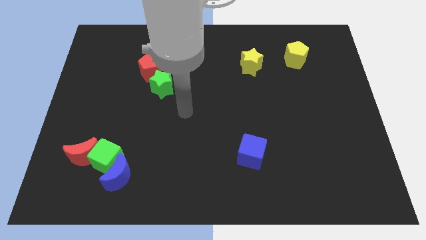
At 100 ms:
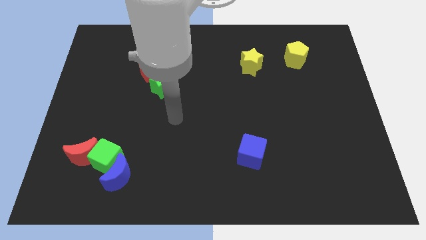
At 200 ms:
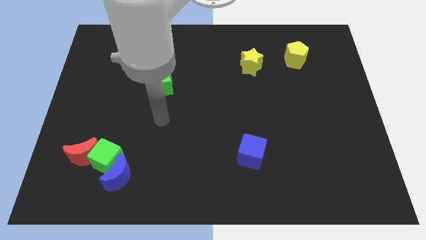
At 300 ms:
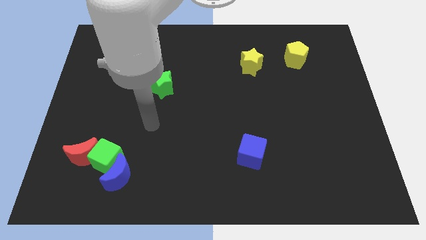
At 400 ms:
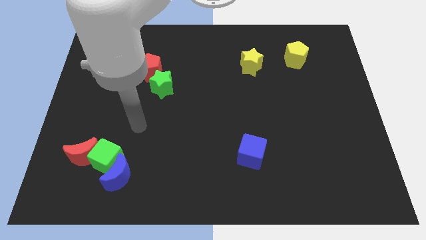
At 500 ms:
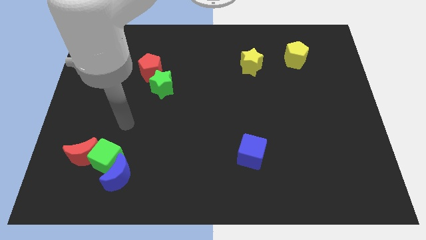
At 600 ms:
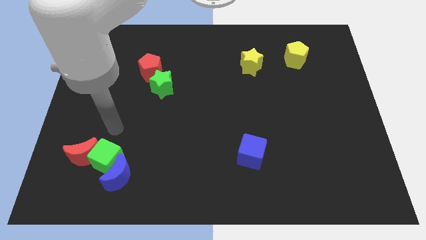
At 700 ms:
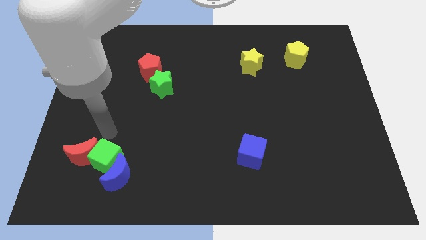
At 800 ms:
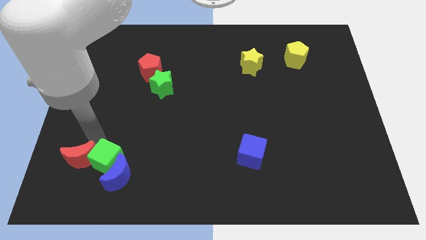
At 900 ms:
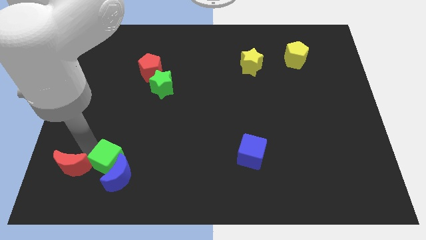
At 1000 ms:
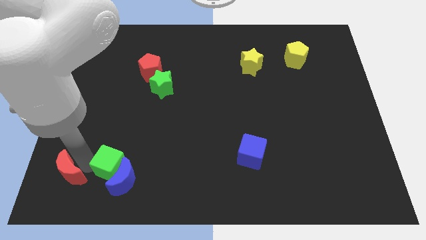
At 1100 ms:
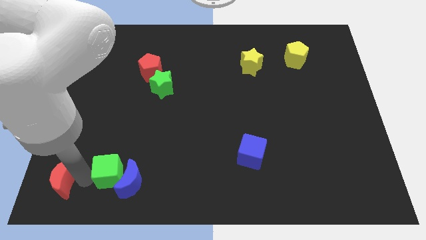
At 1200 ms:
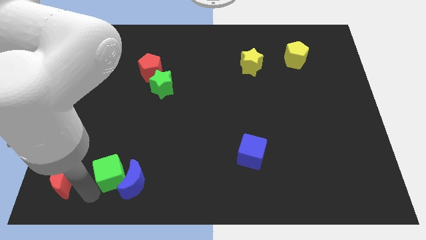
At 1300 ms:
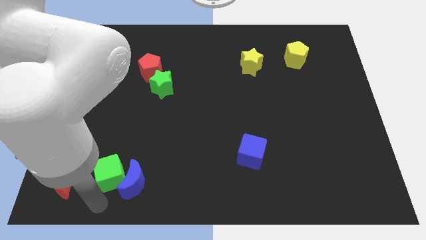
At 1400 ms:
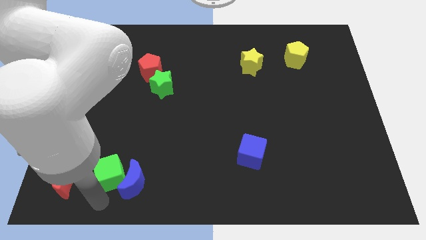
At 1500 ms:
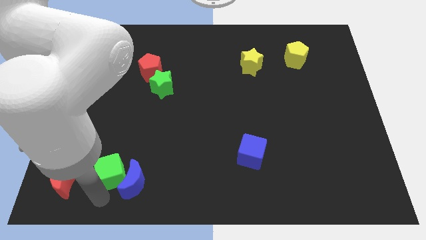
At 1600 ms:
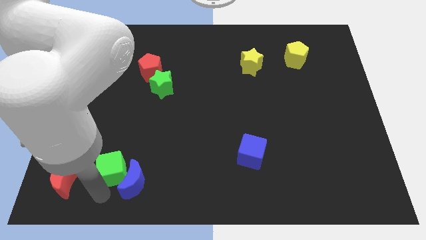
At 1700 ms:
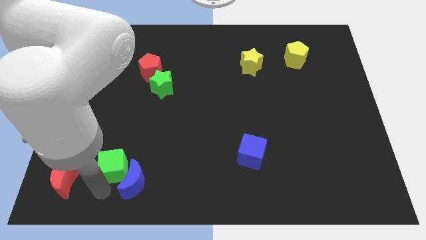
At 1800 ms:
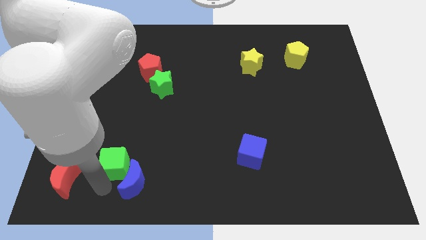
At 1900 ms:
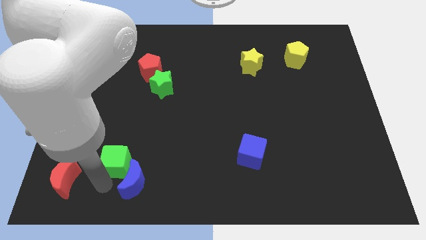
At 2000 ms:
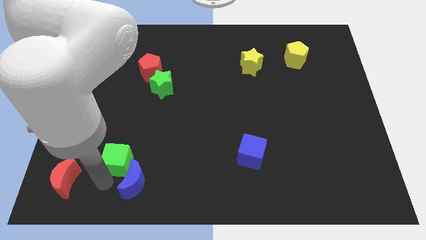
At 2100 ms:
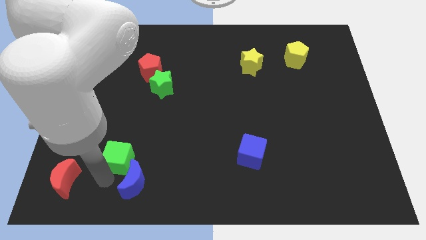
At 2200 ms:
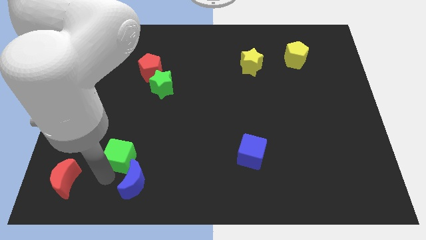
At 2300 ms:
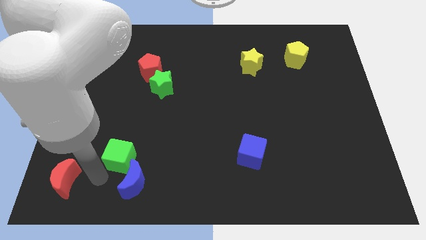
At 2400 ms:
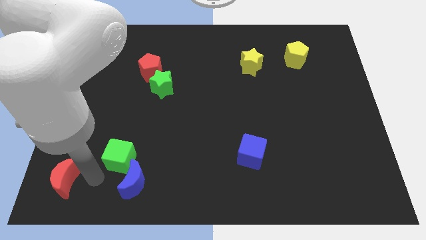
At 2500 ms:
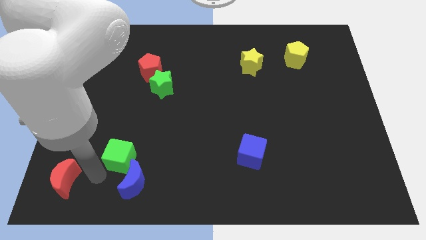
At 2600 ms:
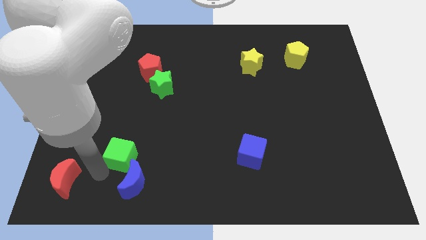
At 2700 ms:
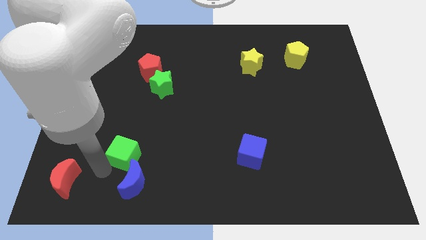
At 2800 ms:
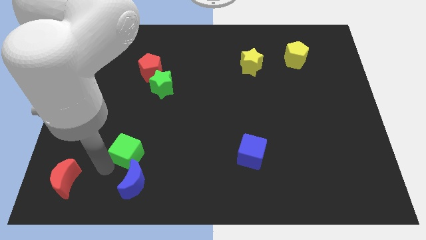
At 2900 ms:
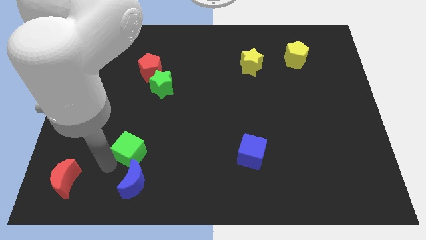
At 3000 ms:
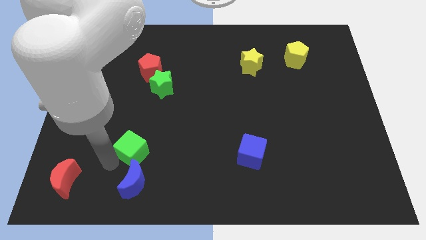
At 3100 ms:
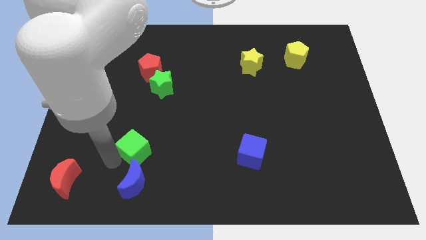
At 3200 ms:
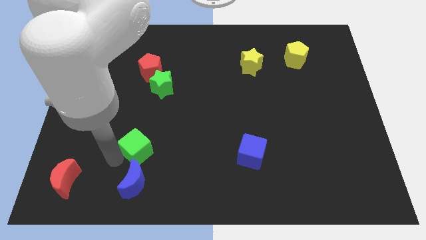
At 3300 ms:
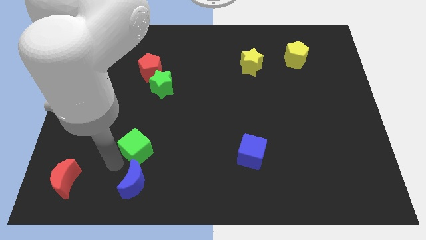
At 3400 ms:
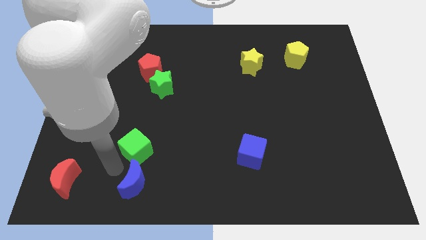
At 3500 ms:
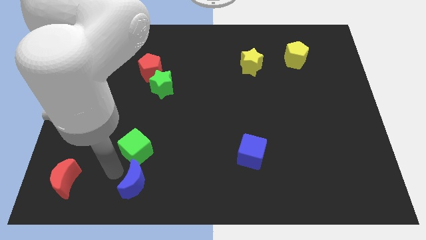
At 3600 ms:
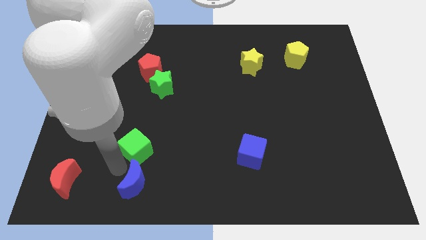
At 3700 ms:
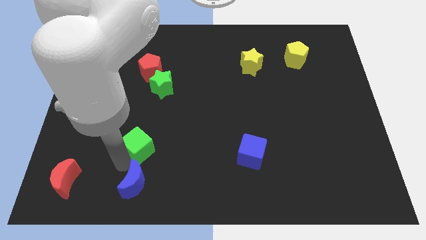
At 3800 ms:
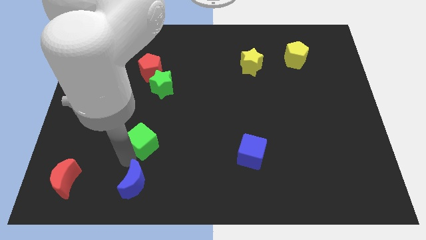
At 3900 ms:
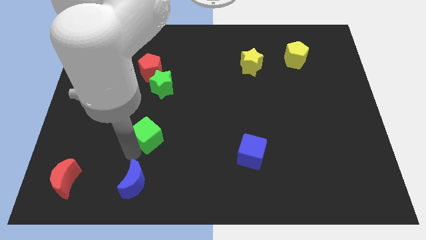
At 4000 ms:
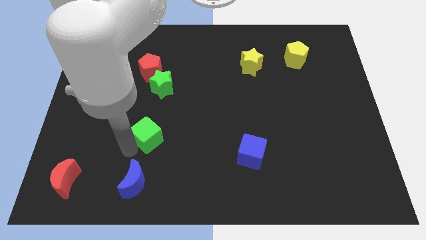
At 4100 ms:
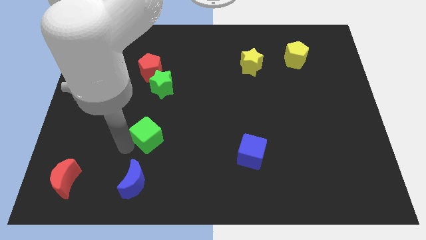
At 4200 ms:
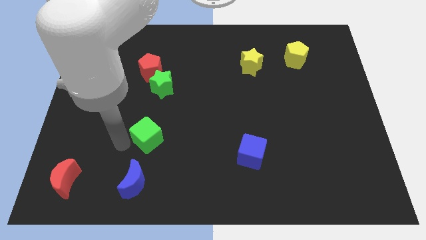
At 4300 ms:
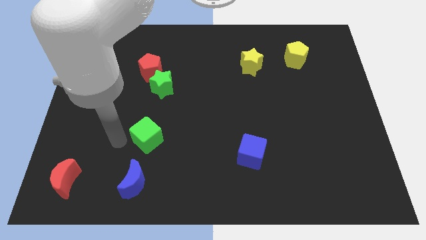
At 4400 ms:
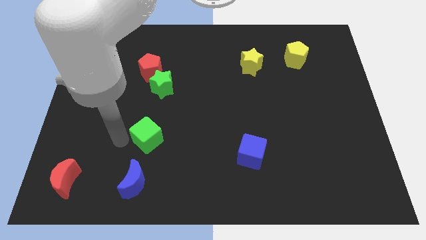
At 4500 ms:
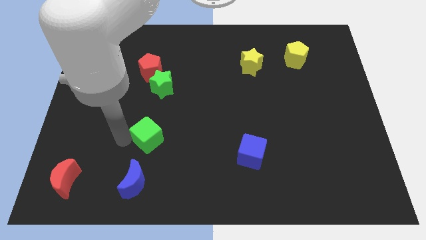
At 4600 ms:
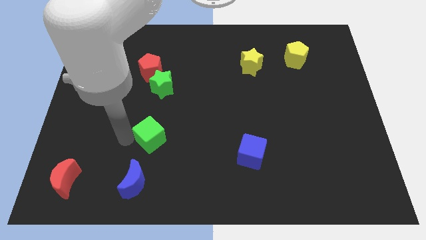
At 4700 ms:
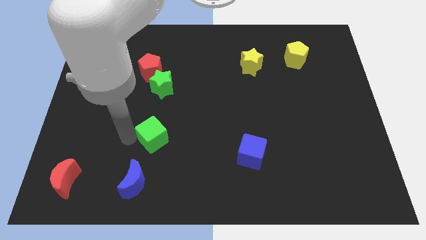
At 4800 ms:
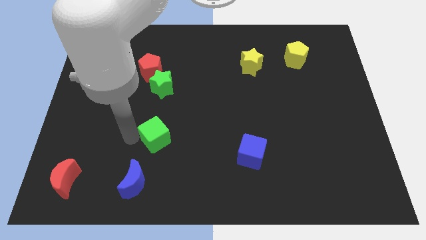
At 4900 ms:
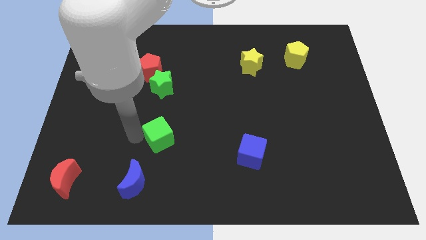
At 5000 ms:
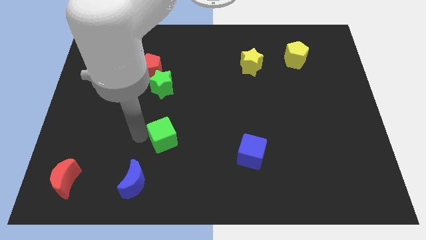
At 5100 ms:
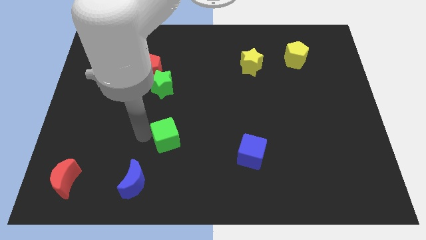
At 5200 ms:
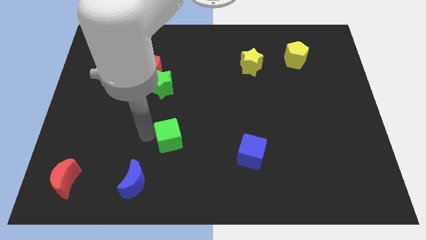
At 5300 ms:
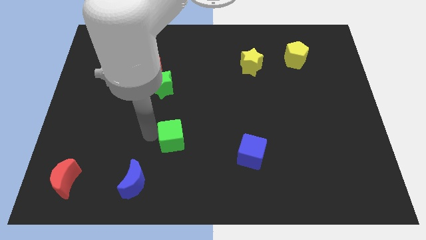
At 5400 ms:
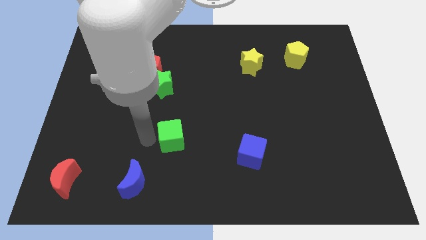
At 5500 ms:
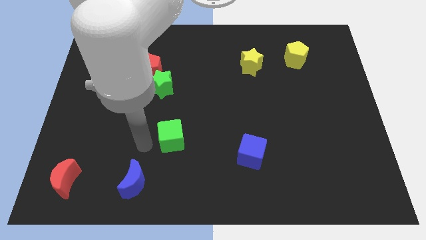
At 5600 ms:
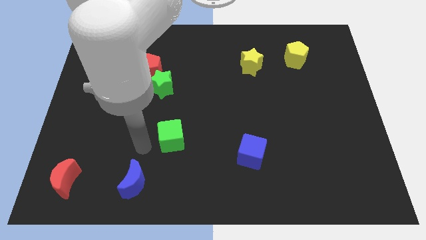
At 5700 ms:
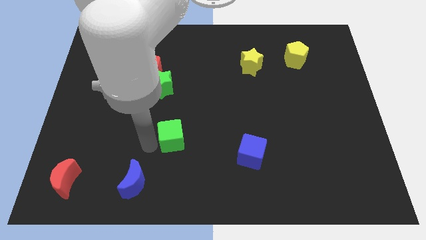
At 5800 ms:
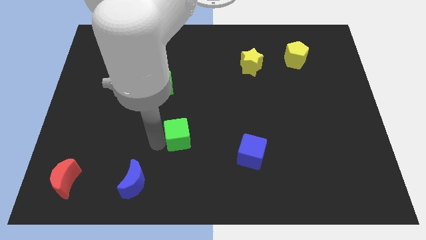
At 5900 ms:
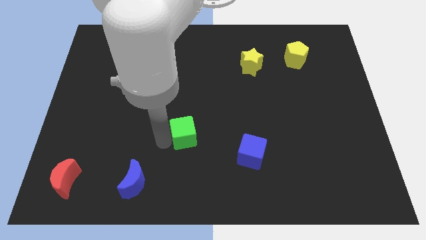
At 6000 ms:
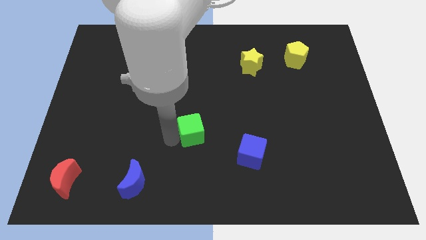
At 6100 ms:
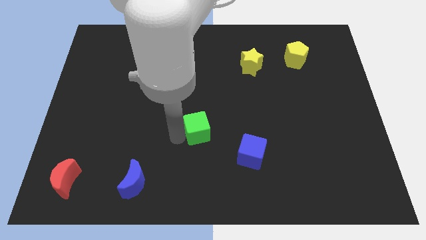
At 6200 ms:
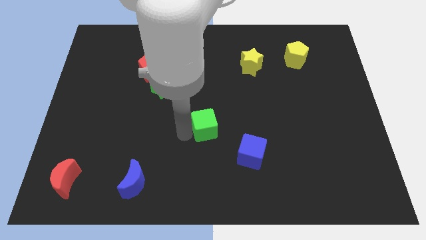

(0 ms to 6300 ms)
slide the green cube to the top left of the blue cube
